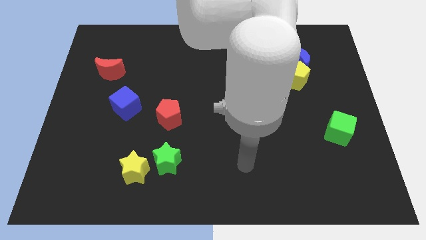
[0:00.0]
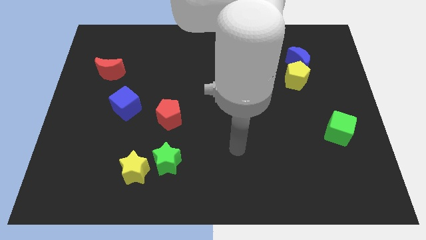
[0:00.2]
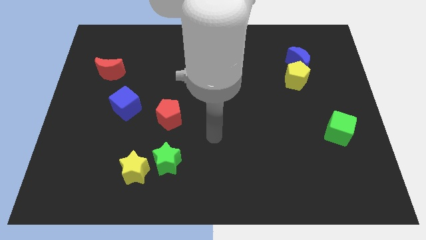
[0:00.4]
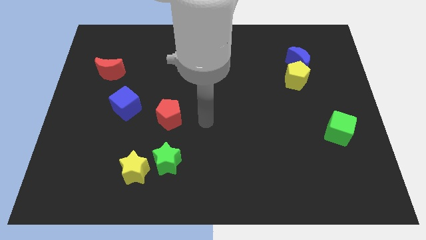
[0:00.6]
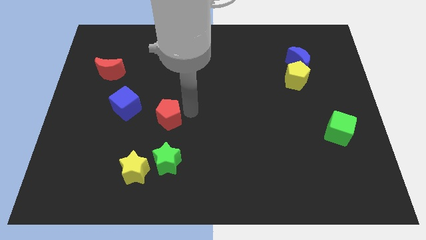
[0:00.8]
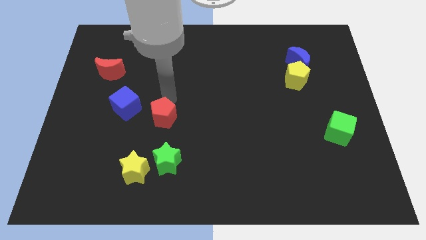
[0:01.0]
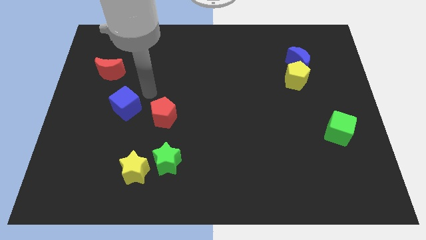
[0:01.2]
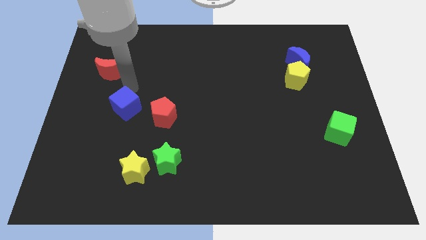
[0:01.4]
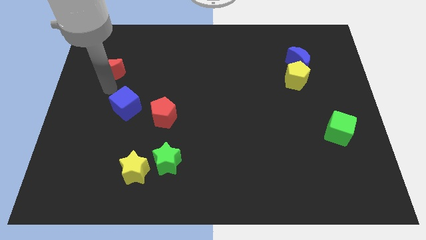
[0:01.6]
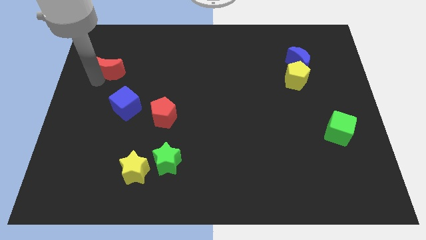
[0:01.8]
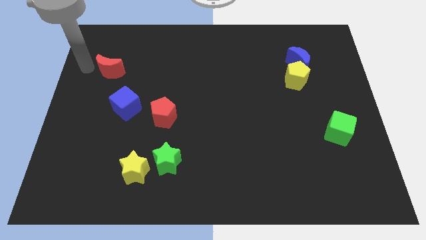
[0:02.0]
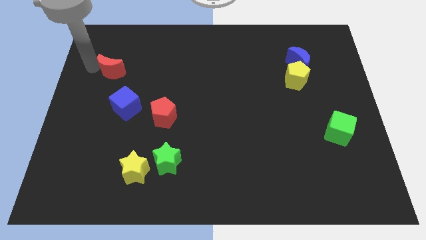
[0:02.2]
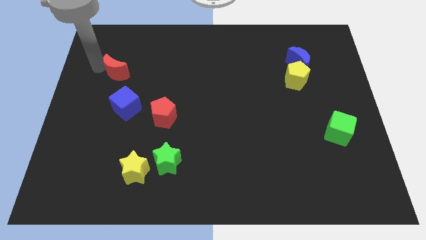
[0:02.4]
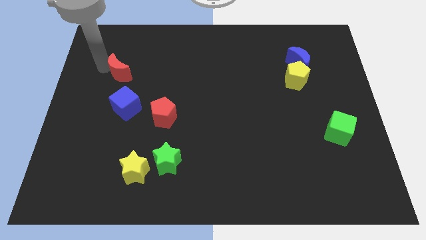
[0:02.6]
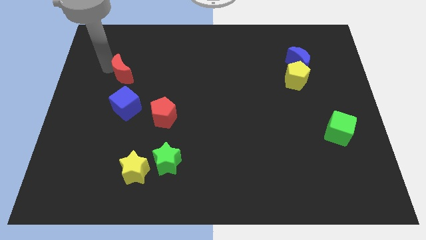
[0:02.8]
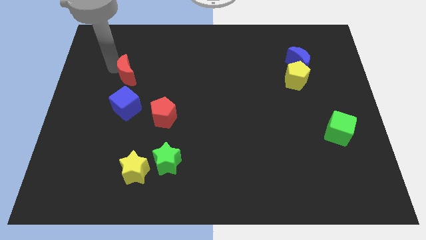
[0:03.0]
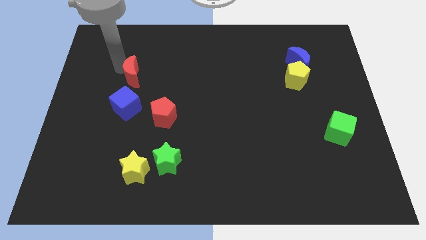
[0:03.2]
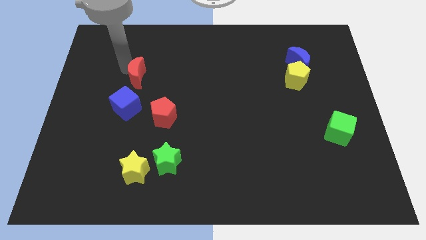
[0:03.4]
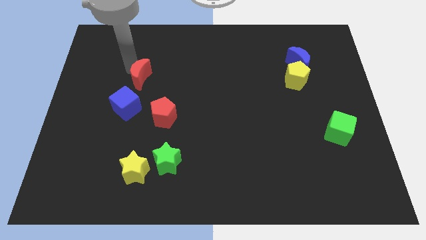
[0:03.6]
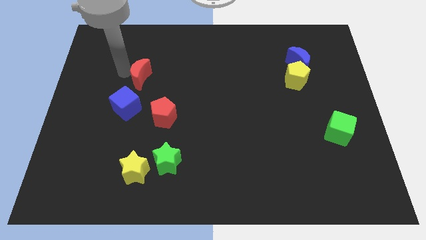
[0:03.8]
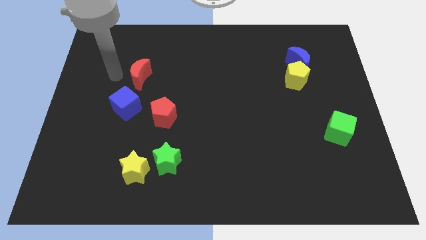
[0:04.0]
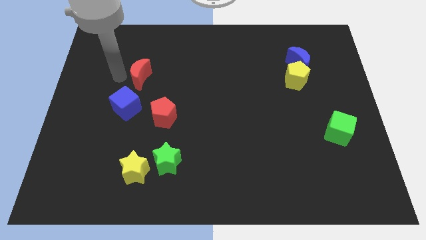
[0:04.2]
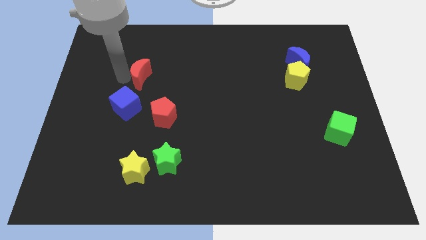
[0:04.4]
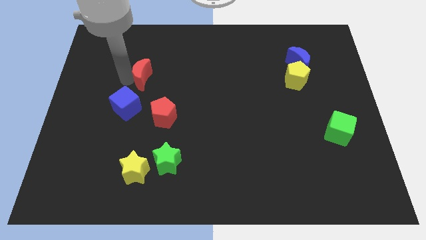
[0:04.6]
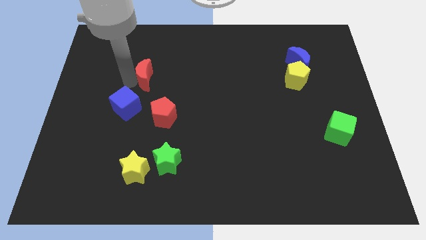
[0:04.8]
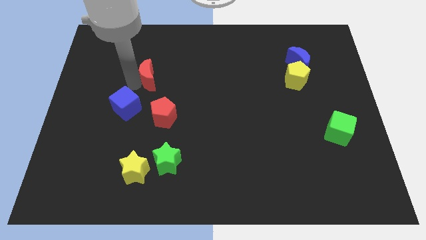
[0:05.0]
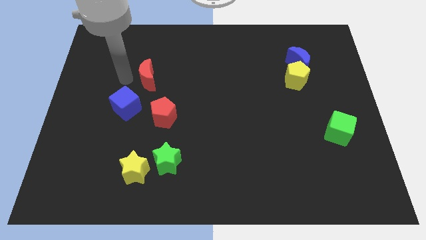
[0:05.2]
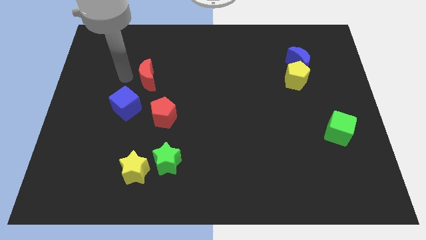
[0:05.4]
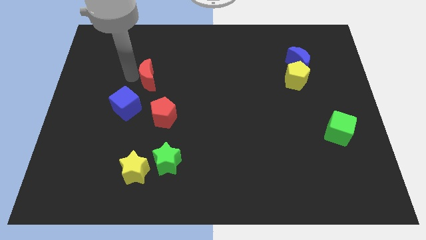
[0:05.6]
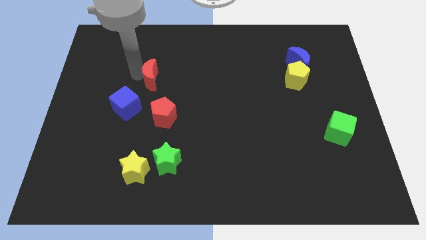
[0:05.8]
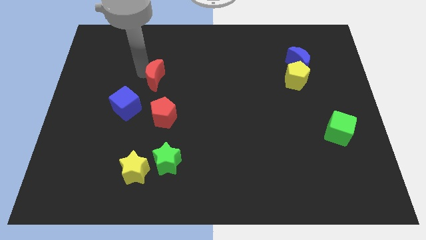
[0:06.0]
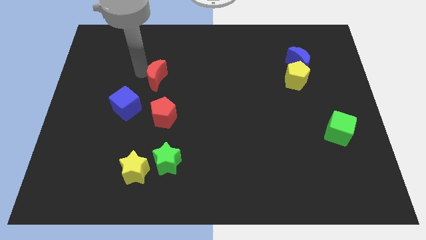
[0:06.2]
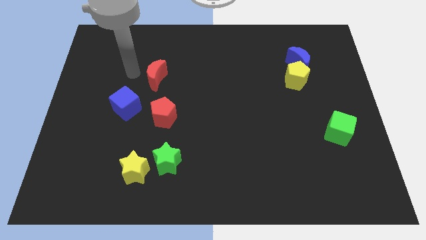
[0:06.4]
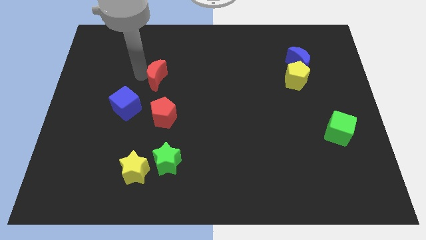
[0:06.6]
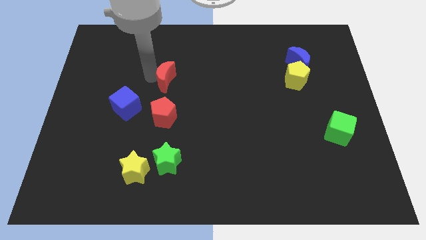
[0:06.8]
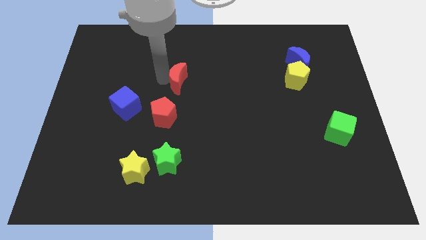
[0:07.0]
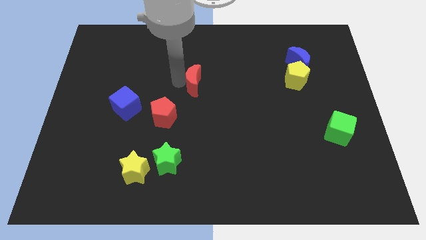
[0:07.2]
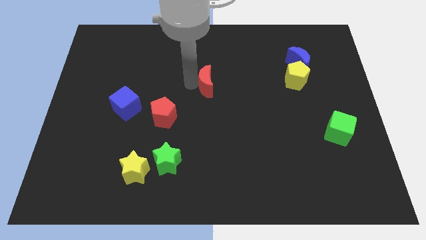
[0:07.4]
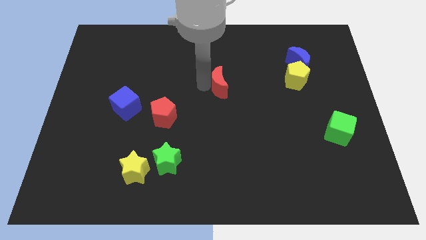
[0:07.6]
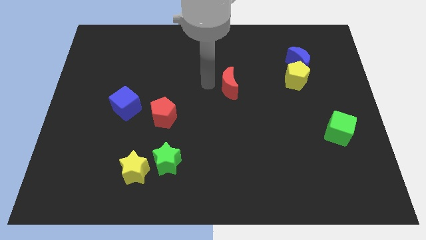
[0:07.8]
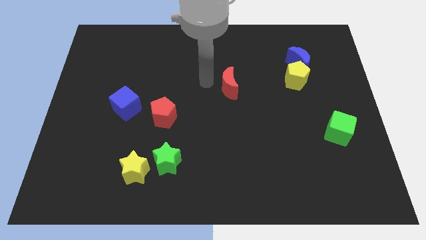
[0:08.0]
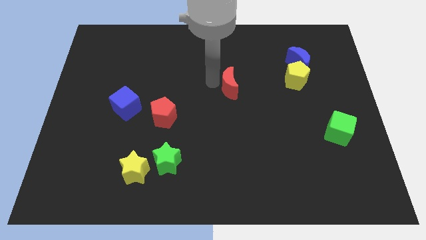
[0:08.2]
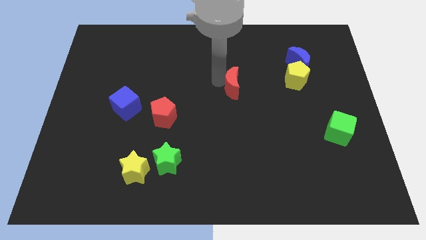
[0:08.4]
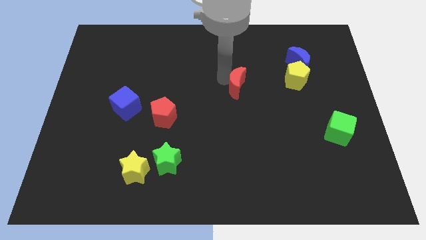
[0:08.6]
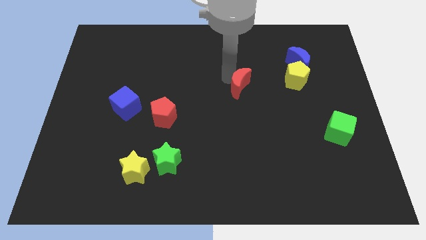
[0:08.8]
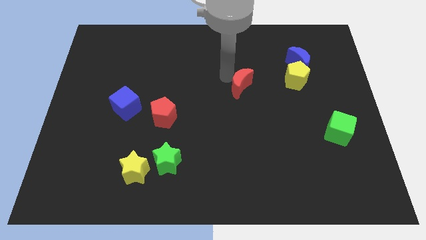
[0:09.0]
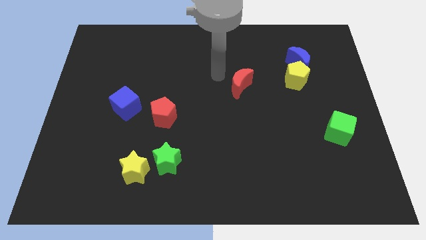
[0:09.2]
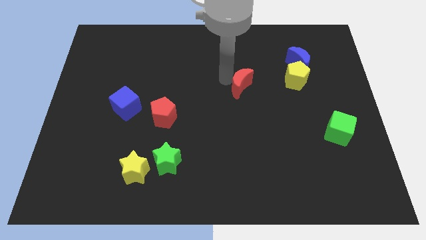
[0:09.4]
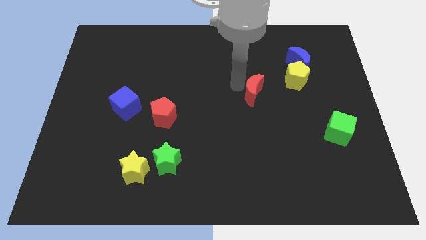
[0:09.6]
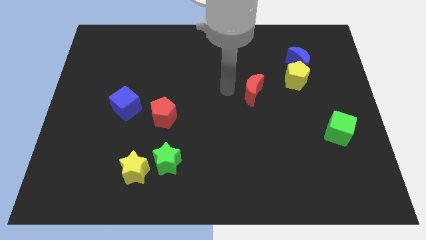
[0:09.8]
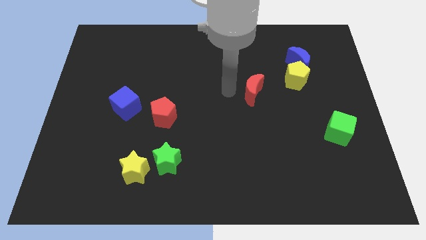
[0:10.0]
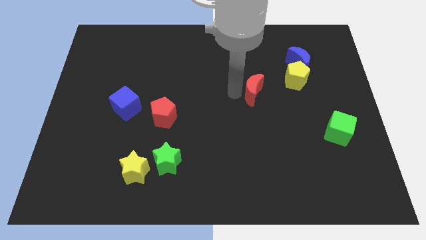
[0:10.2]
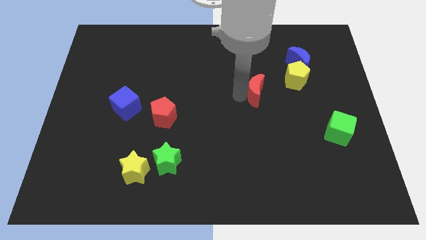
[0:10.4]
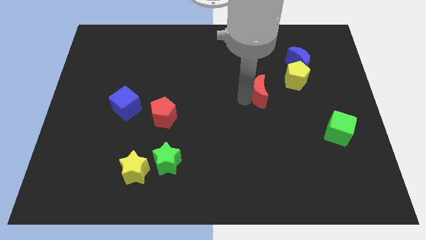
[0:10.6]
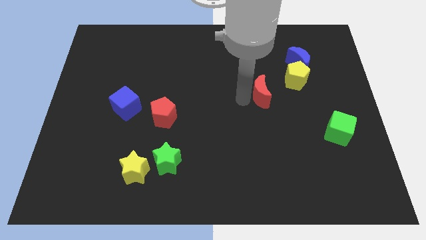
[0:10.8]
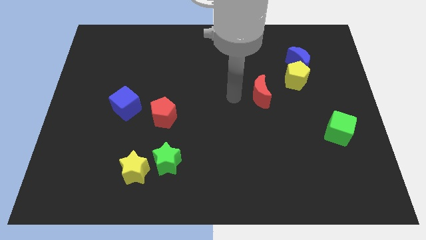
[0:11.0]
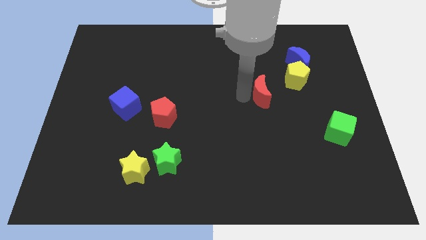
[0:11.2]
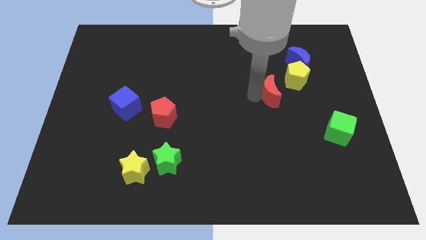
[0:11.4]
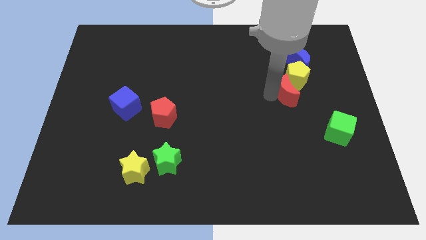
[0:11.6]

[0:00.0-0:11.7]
move the red moon below the blue moon

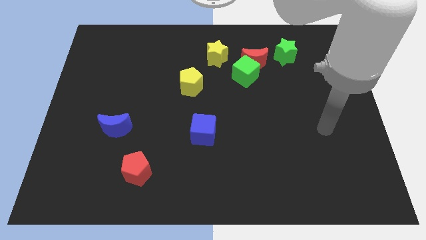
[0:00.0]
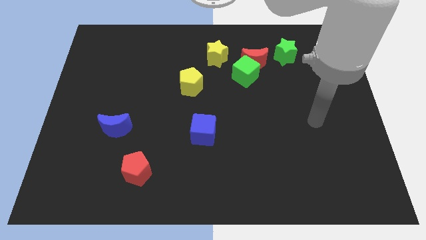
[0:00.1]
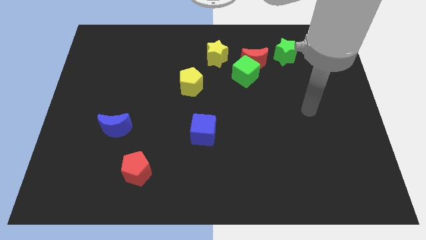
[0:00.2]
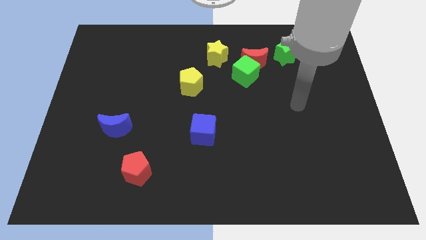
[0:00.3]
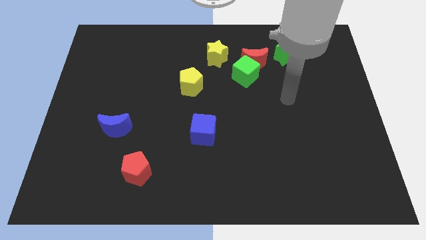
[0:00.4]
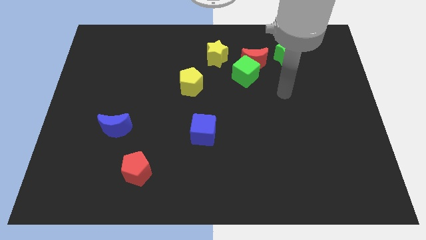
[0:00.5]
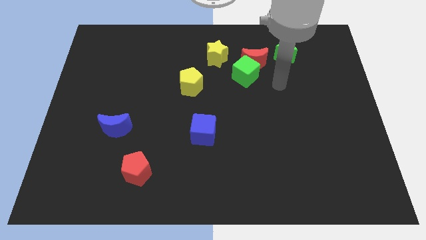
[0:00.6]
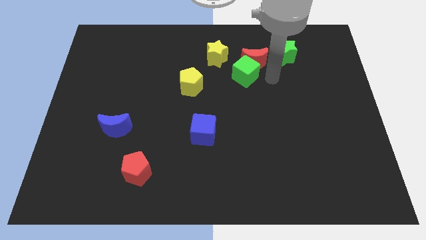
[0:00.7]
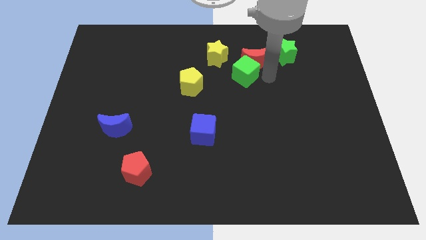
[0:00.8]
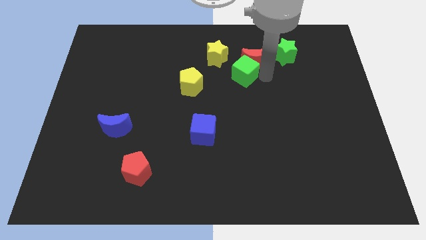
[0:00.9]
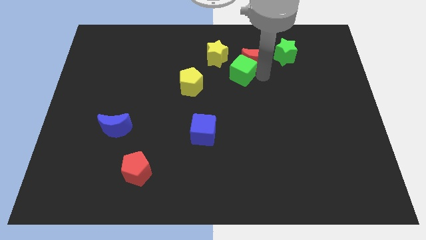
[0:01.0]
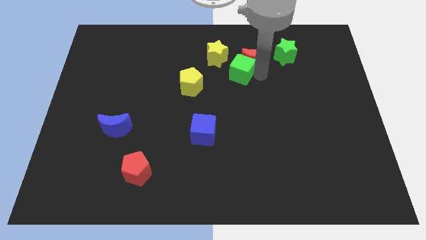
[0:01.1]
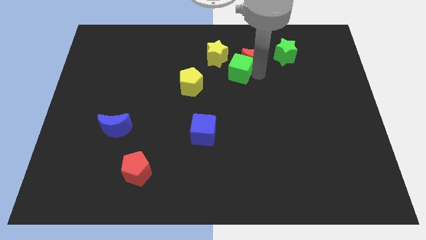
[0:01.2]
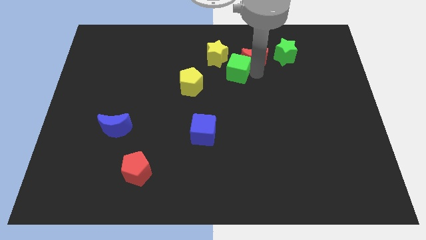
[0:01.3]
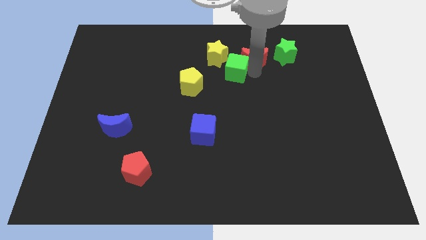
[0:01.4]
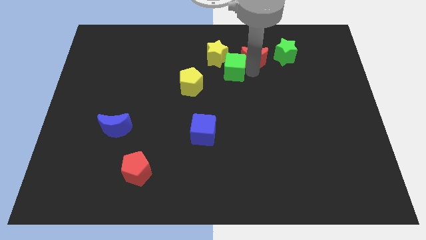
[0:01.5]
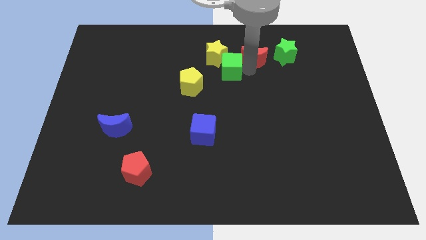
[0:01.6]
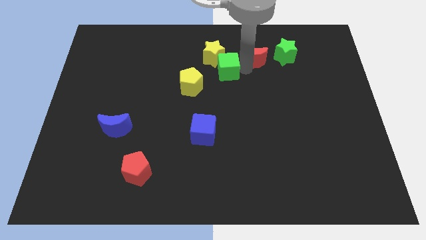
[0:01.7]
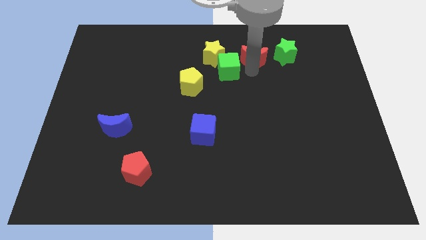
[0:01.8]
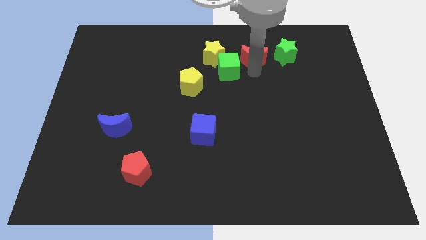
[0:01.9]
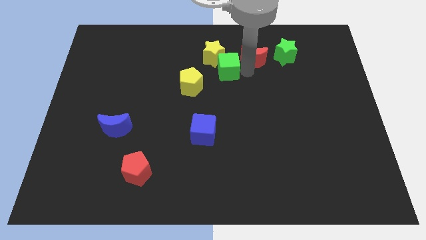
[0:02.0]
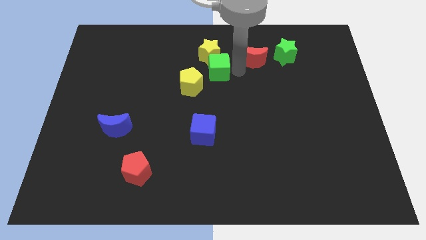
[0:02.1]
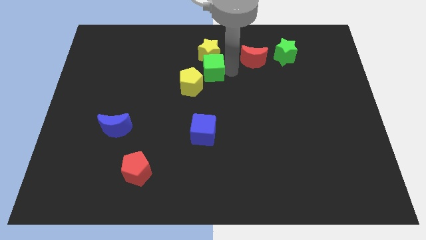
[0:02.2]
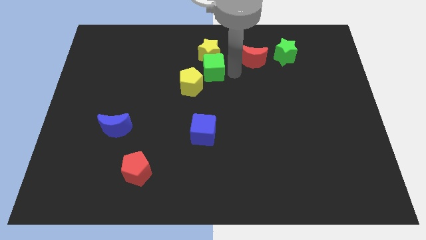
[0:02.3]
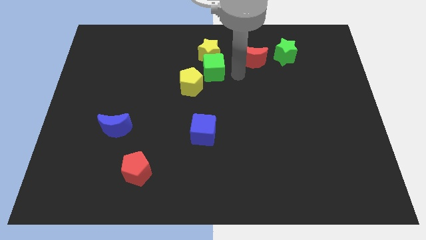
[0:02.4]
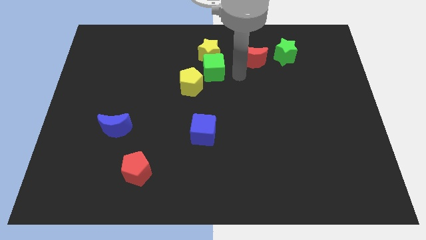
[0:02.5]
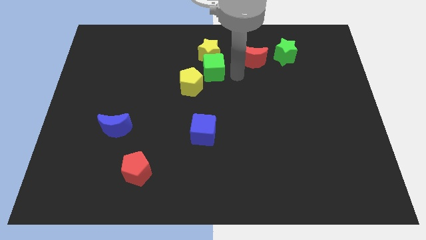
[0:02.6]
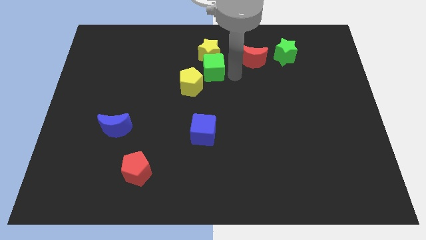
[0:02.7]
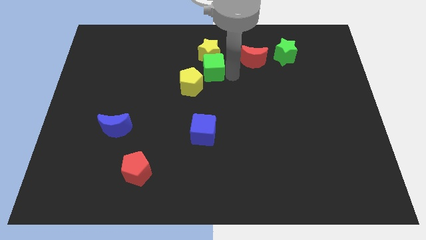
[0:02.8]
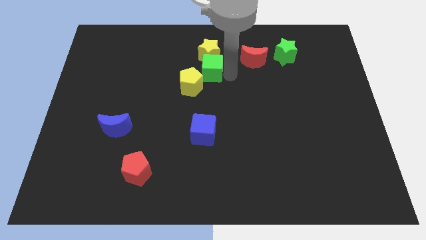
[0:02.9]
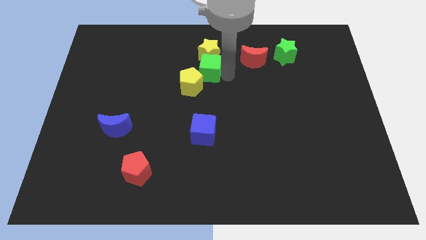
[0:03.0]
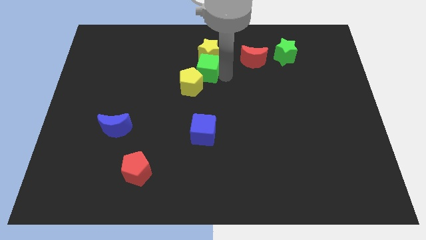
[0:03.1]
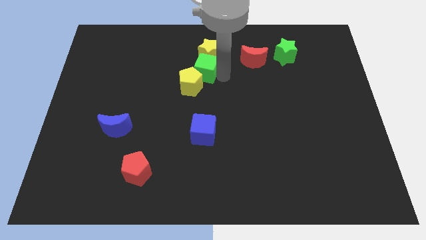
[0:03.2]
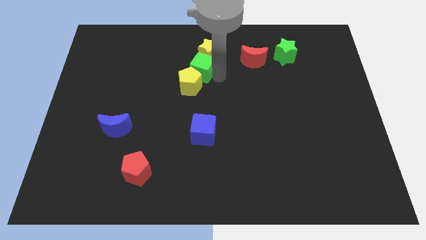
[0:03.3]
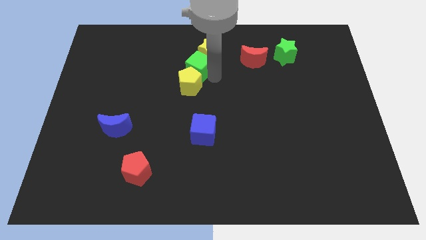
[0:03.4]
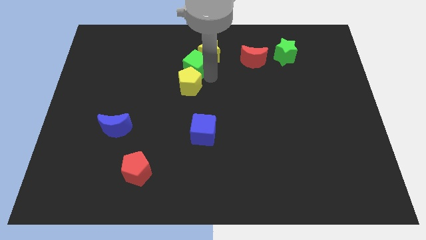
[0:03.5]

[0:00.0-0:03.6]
push the green cube to the left of the yellow star
